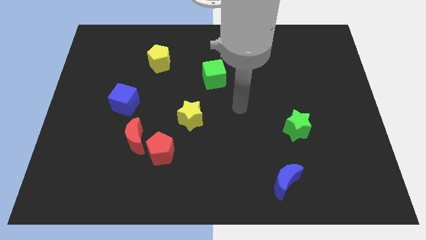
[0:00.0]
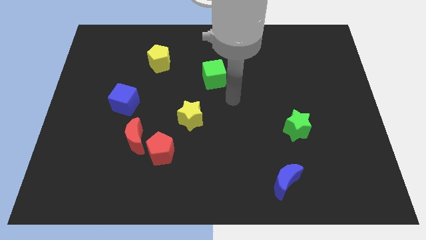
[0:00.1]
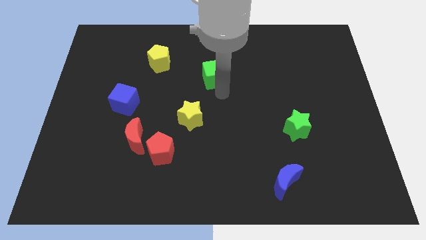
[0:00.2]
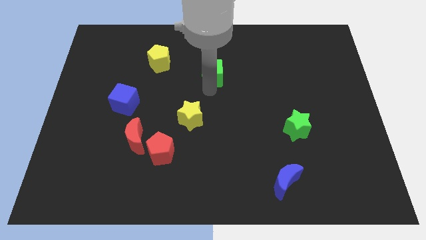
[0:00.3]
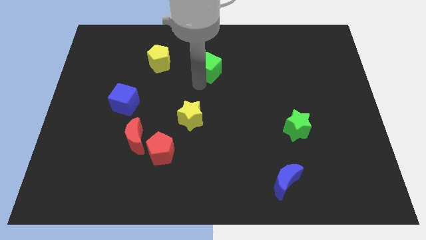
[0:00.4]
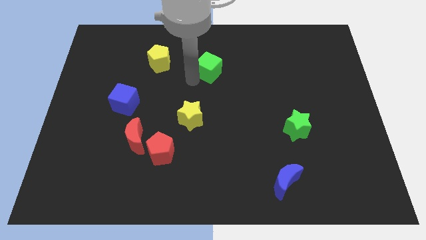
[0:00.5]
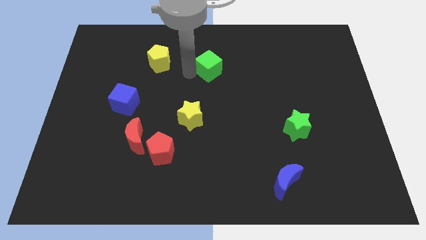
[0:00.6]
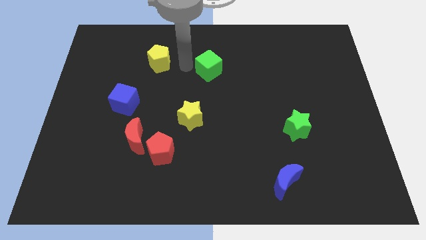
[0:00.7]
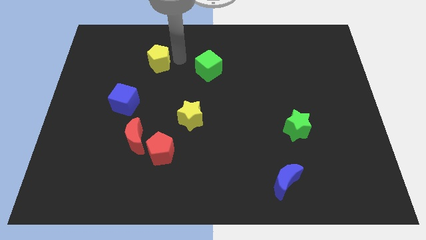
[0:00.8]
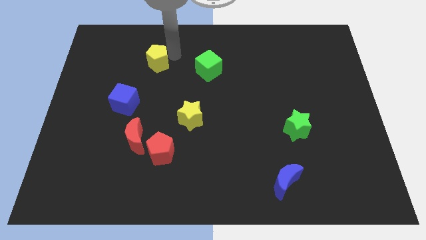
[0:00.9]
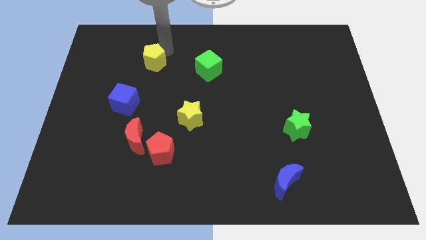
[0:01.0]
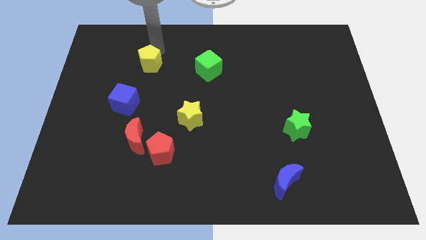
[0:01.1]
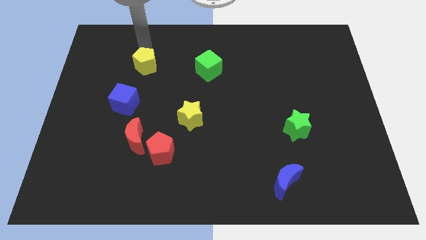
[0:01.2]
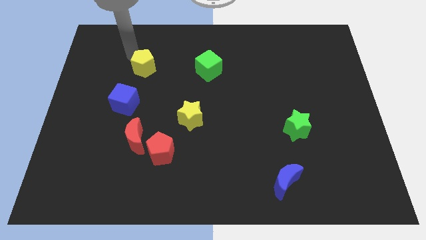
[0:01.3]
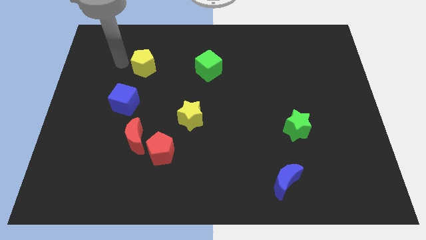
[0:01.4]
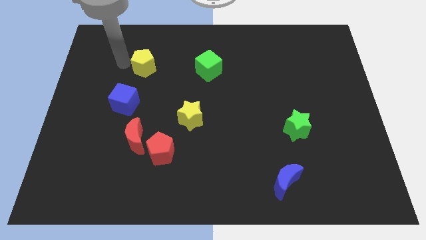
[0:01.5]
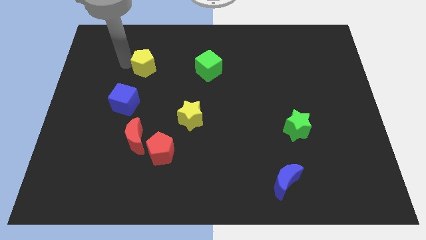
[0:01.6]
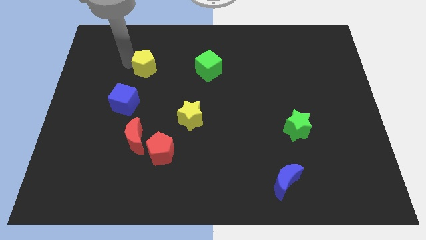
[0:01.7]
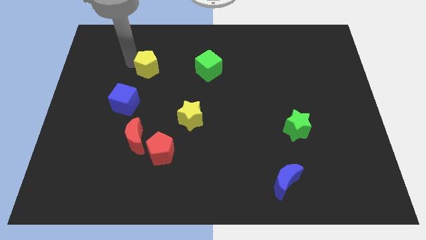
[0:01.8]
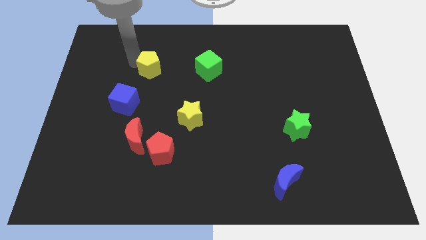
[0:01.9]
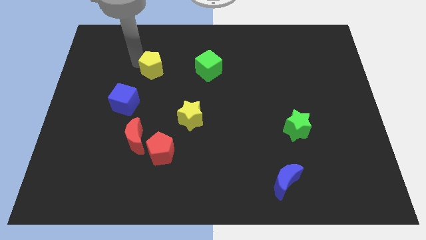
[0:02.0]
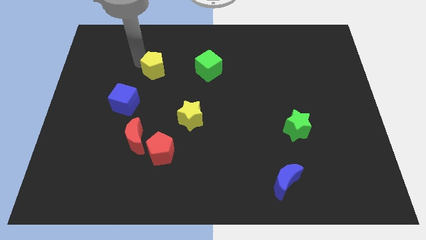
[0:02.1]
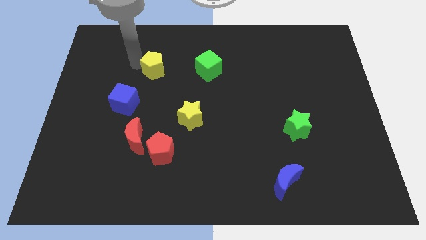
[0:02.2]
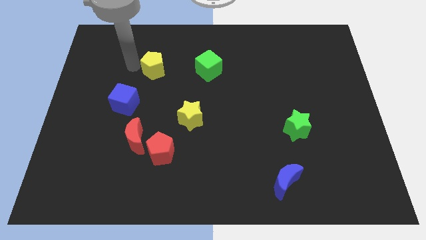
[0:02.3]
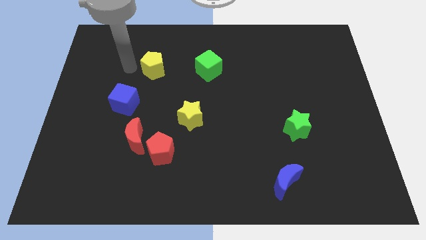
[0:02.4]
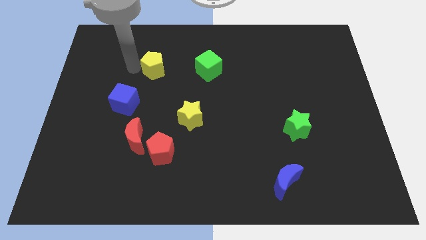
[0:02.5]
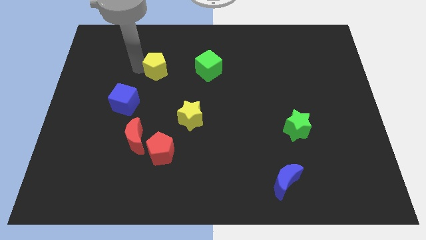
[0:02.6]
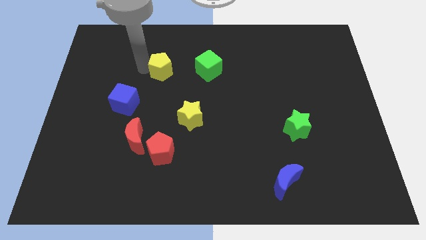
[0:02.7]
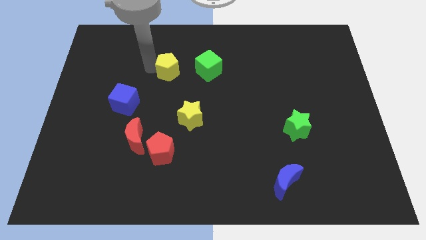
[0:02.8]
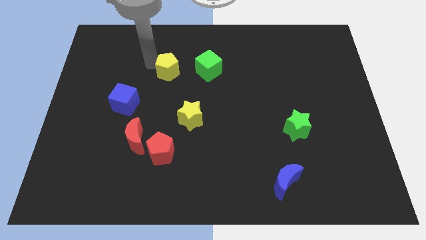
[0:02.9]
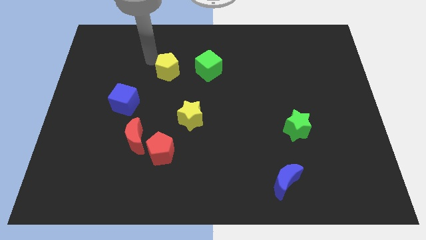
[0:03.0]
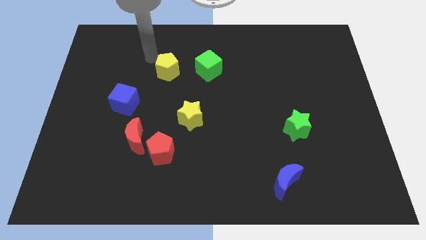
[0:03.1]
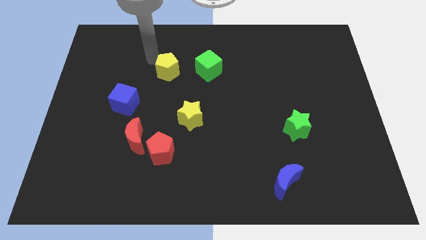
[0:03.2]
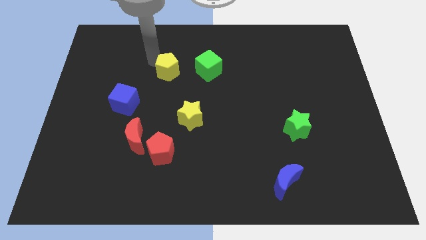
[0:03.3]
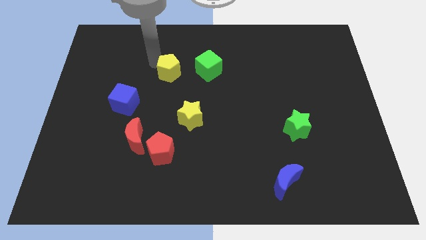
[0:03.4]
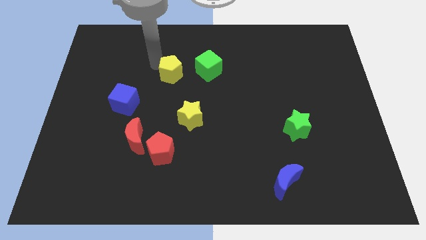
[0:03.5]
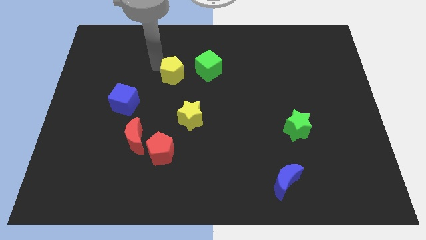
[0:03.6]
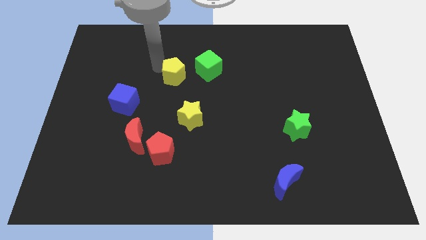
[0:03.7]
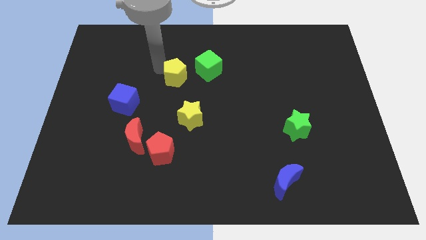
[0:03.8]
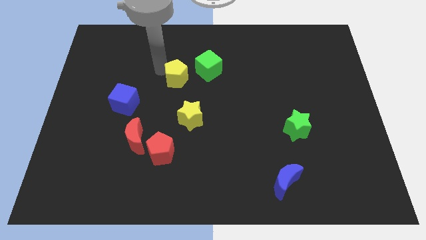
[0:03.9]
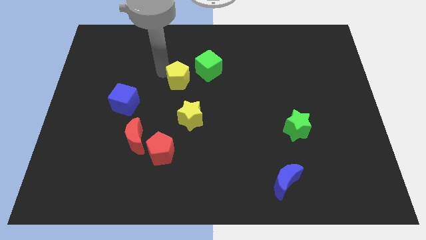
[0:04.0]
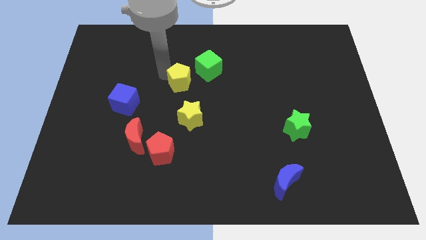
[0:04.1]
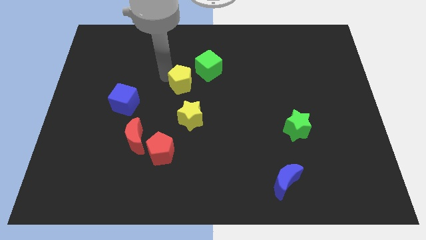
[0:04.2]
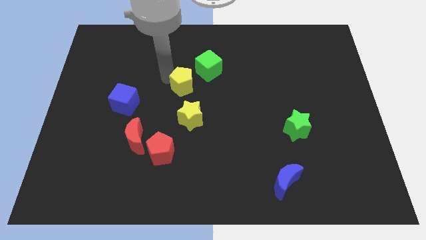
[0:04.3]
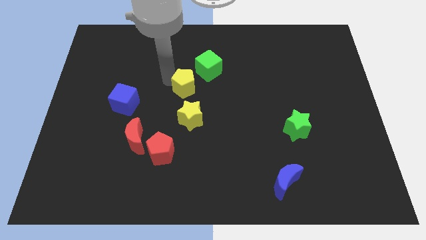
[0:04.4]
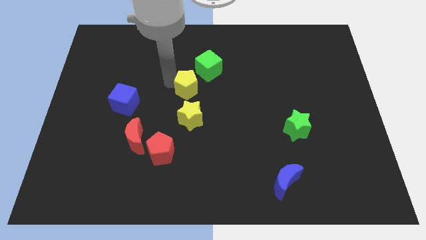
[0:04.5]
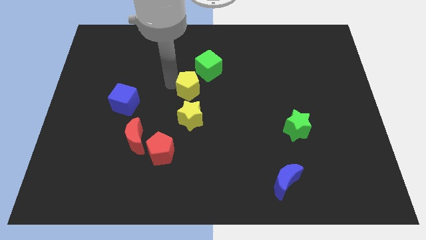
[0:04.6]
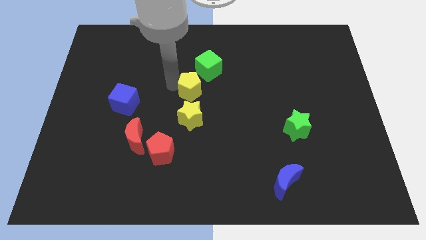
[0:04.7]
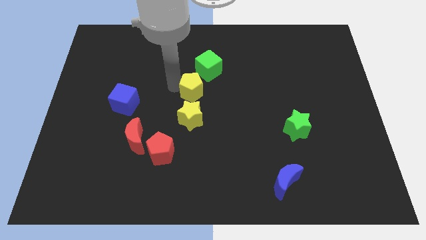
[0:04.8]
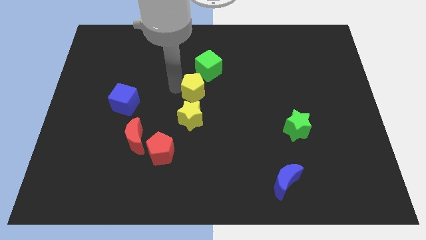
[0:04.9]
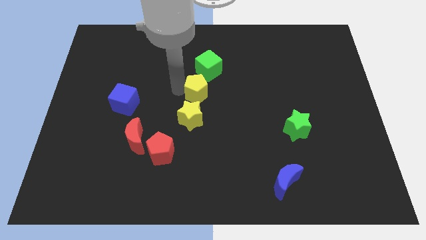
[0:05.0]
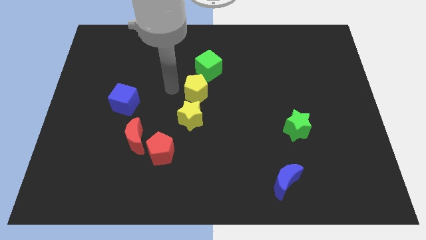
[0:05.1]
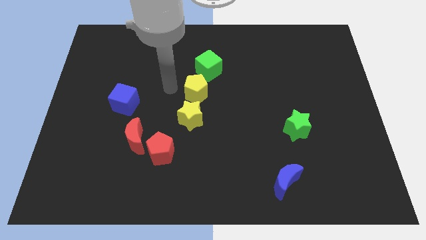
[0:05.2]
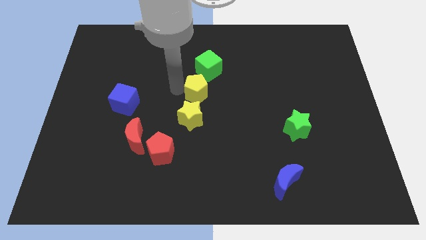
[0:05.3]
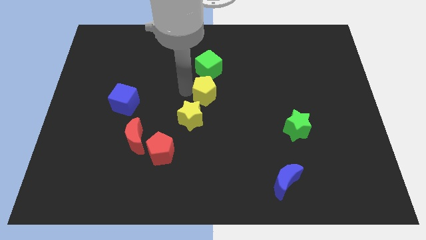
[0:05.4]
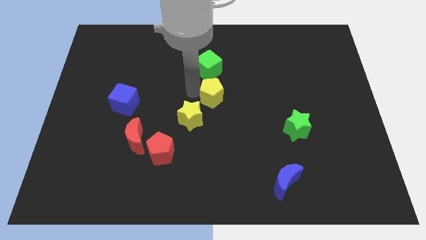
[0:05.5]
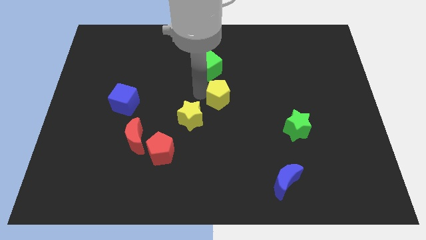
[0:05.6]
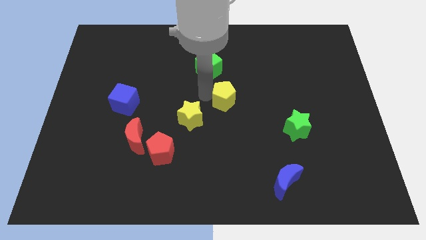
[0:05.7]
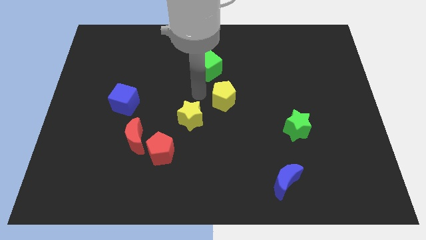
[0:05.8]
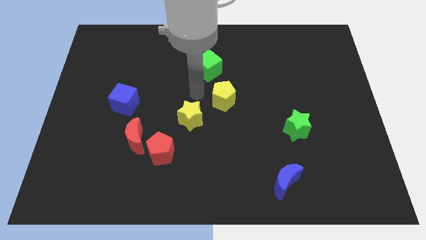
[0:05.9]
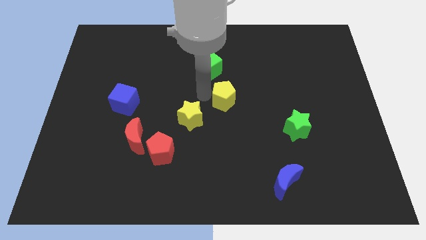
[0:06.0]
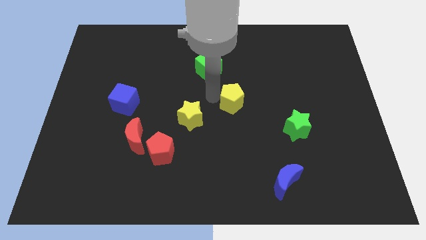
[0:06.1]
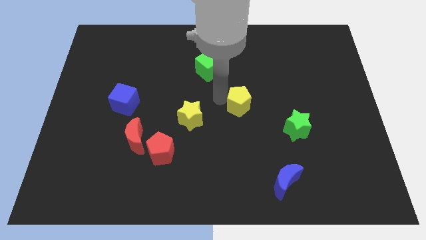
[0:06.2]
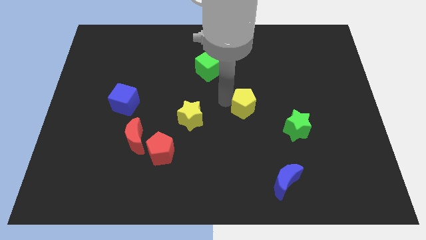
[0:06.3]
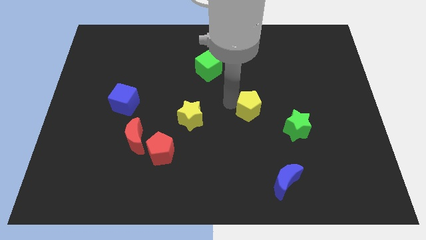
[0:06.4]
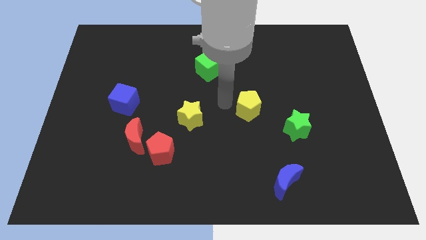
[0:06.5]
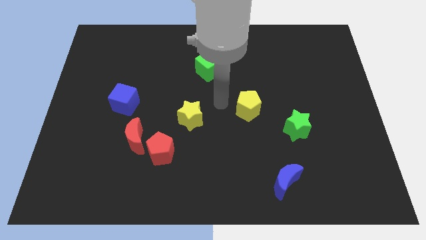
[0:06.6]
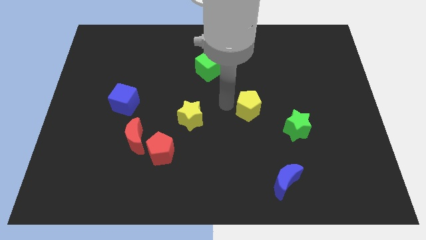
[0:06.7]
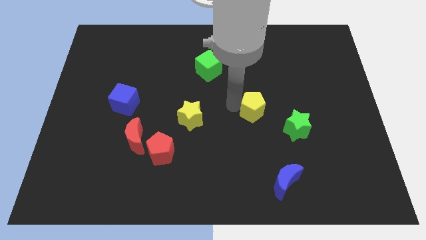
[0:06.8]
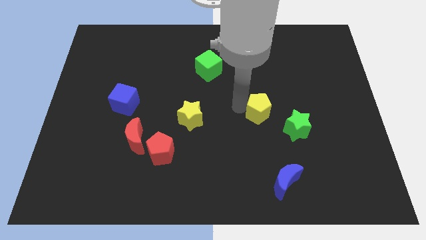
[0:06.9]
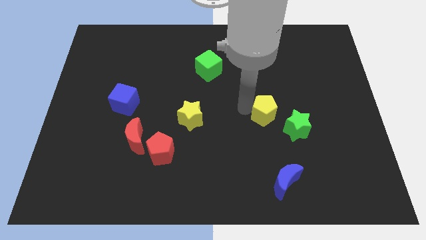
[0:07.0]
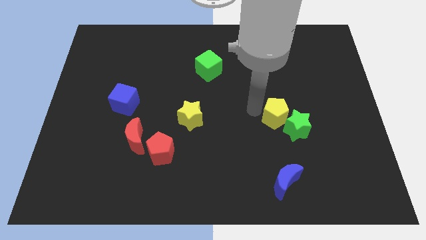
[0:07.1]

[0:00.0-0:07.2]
slide the yellow pentagon to the green star
